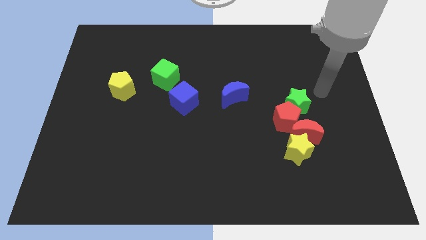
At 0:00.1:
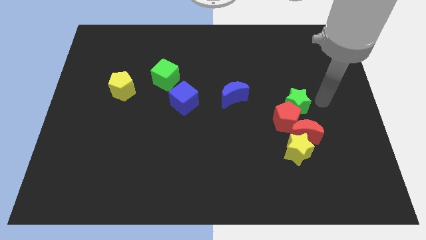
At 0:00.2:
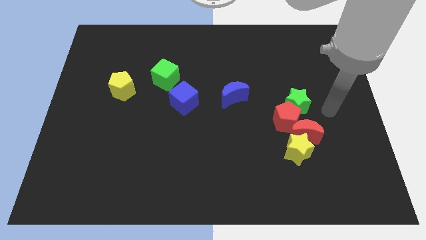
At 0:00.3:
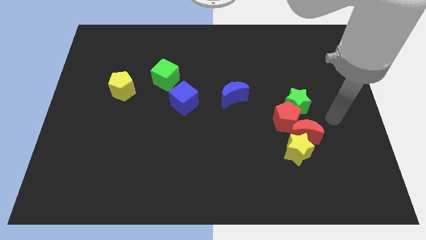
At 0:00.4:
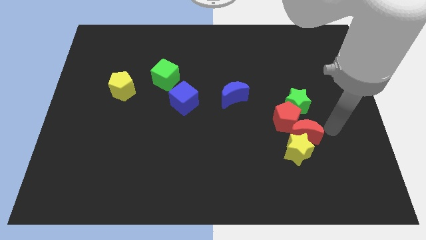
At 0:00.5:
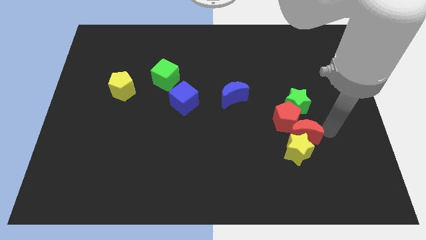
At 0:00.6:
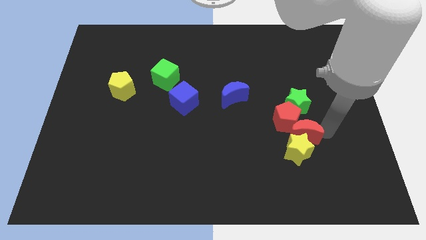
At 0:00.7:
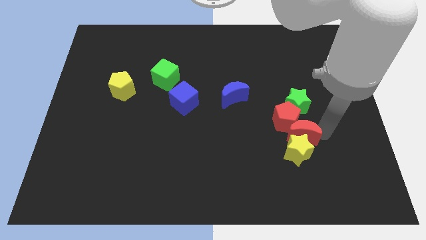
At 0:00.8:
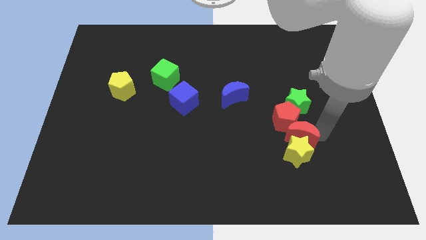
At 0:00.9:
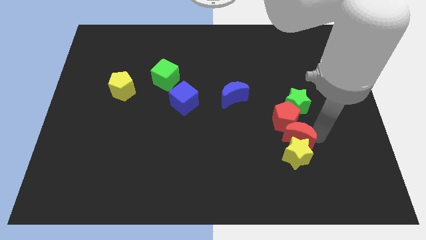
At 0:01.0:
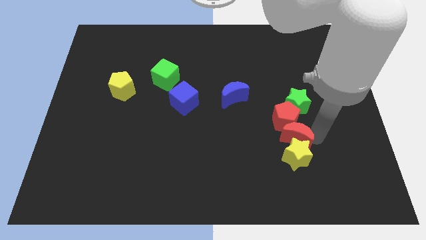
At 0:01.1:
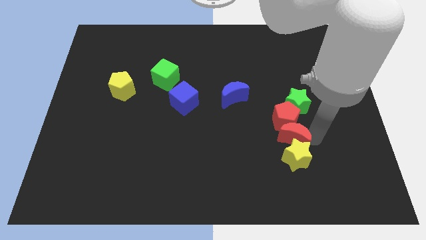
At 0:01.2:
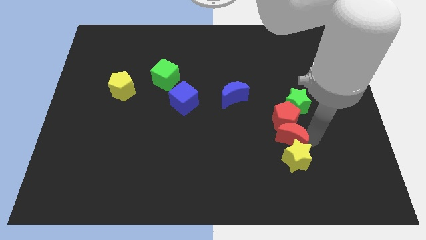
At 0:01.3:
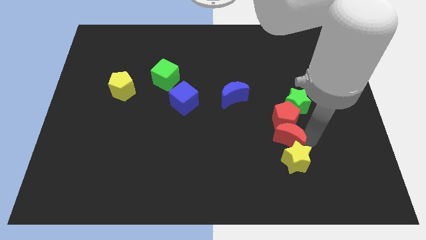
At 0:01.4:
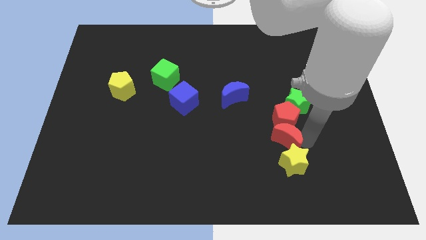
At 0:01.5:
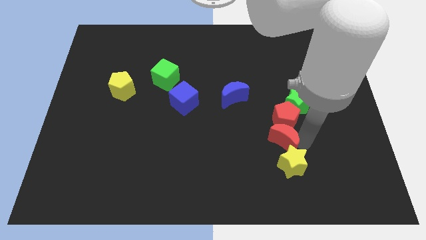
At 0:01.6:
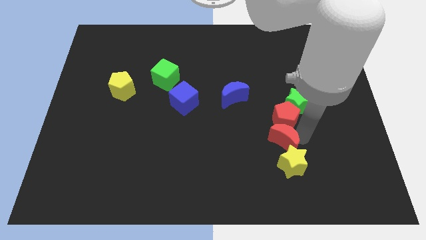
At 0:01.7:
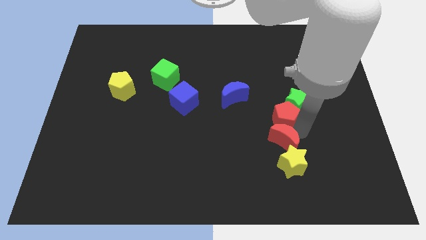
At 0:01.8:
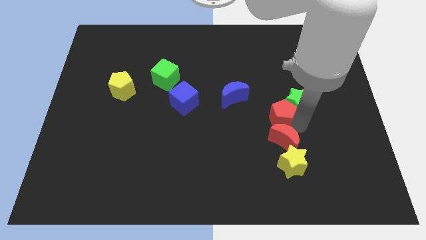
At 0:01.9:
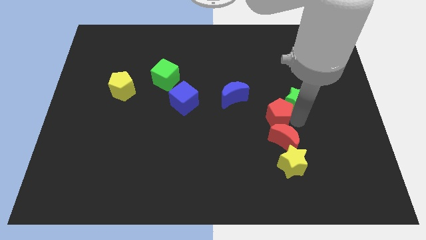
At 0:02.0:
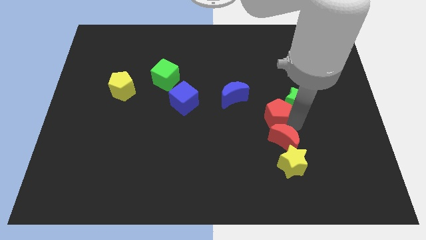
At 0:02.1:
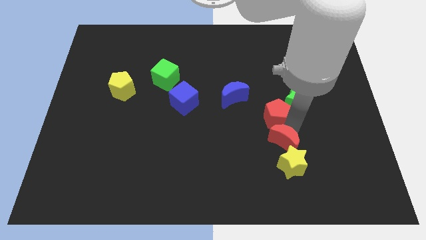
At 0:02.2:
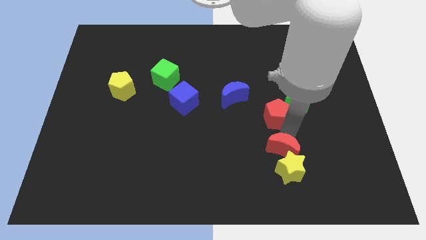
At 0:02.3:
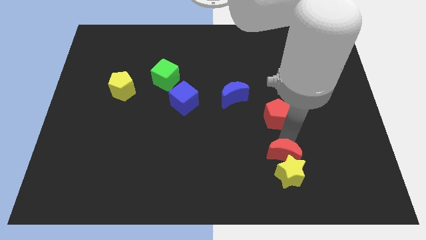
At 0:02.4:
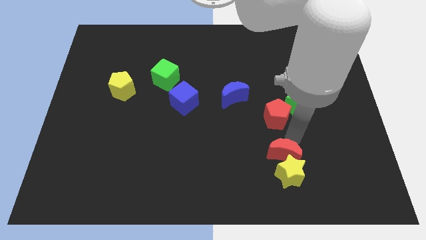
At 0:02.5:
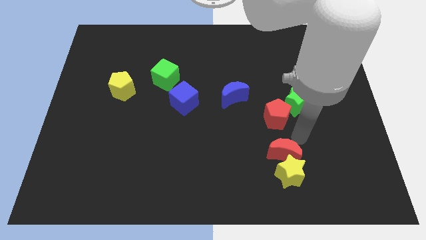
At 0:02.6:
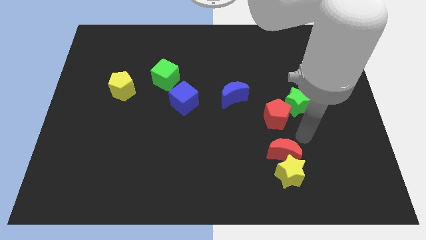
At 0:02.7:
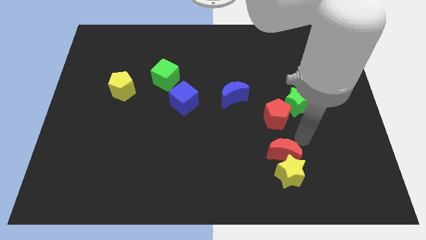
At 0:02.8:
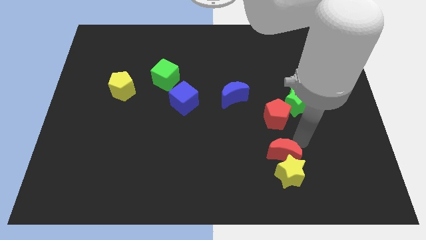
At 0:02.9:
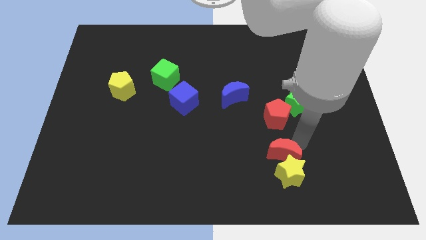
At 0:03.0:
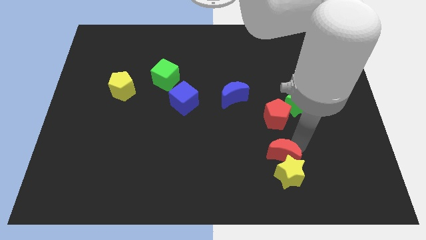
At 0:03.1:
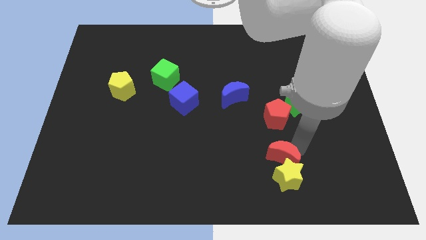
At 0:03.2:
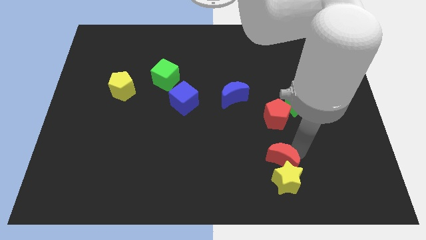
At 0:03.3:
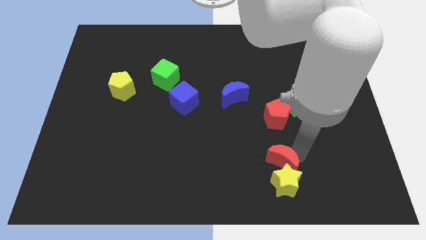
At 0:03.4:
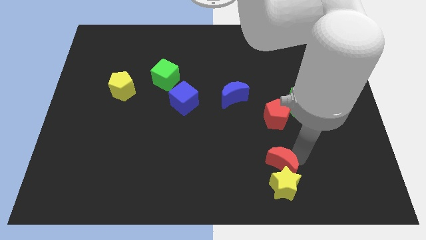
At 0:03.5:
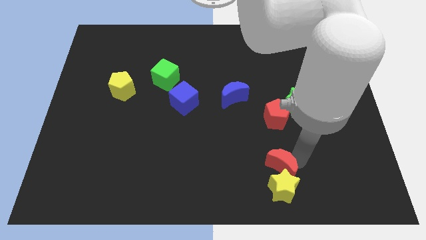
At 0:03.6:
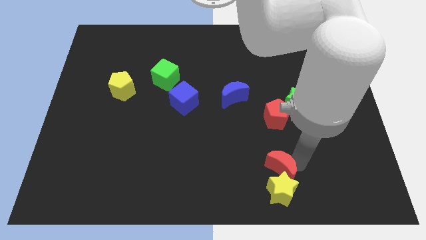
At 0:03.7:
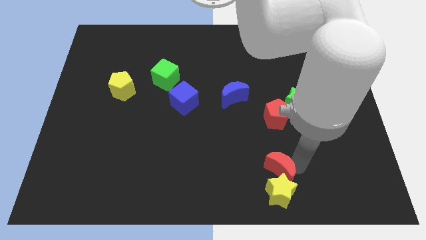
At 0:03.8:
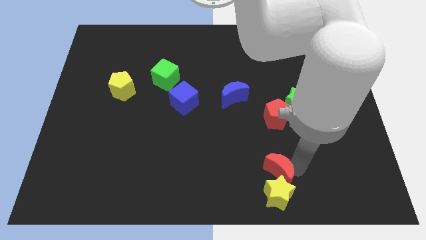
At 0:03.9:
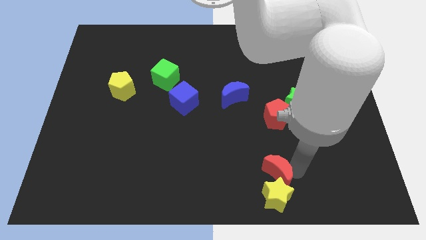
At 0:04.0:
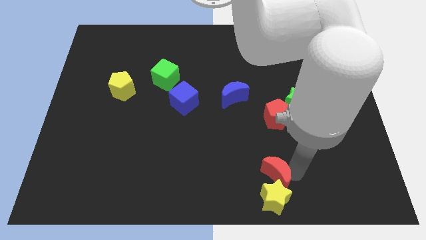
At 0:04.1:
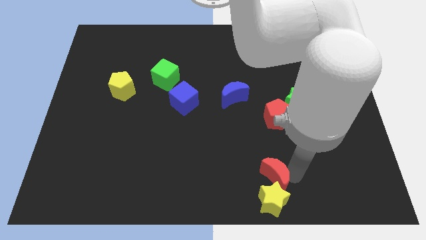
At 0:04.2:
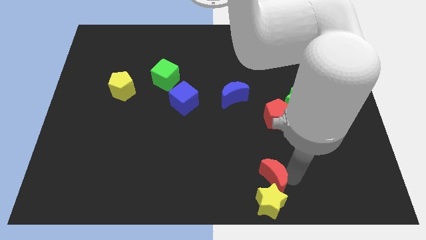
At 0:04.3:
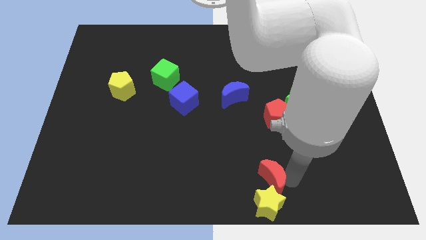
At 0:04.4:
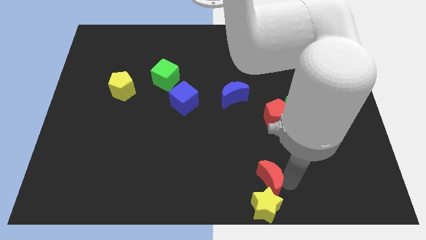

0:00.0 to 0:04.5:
push the red moon to the bottom

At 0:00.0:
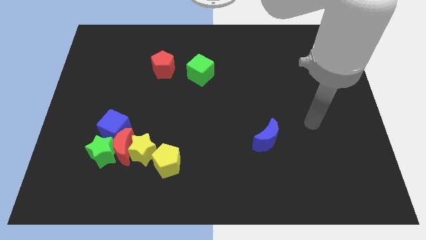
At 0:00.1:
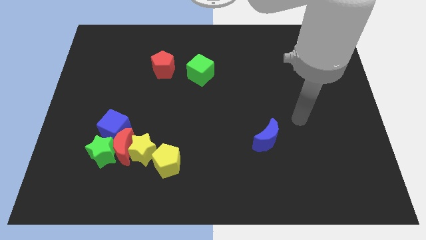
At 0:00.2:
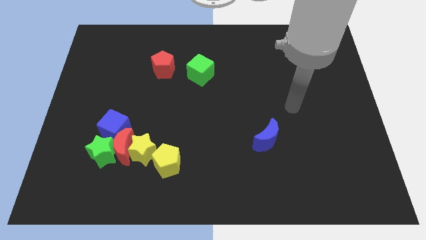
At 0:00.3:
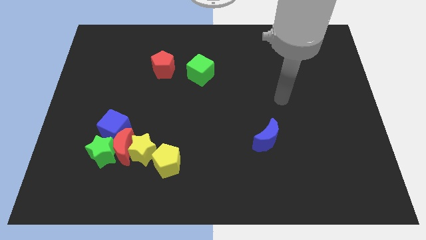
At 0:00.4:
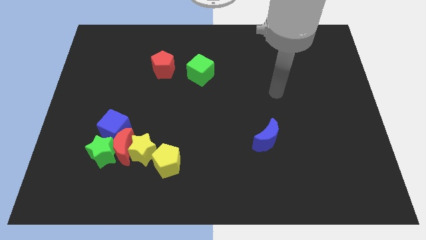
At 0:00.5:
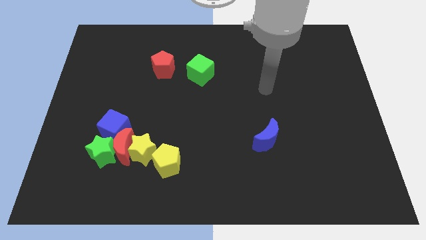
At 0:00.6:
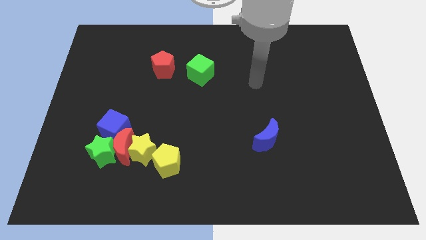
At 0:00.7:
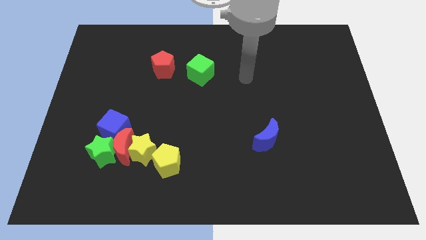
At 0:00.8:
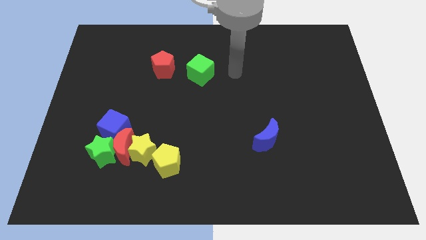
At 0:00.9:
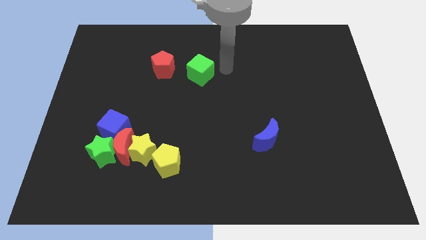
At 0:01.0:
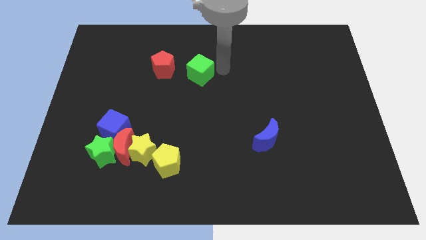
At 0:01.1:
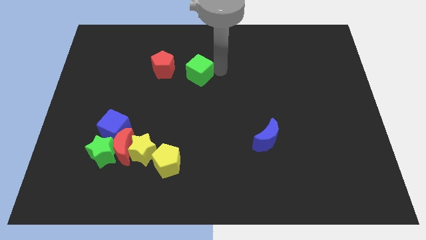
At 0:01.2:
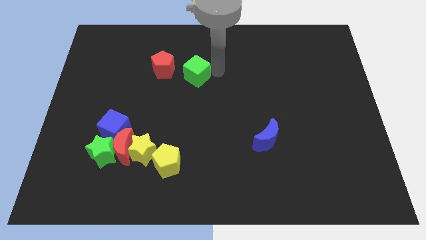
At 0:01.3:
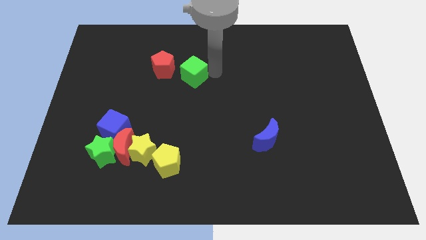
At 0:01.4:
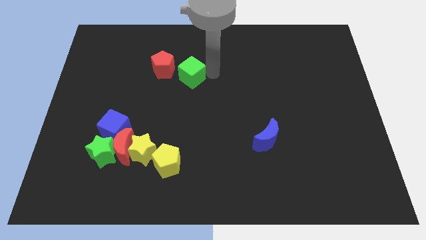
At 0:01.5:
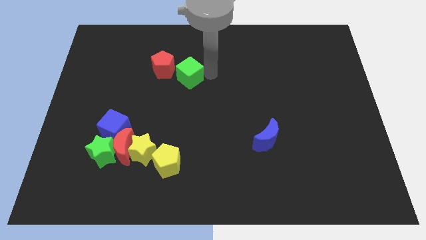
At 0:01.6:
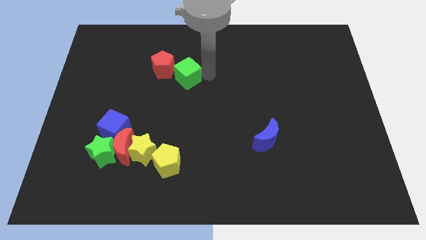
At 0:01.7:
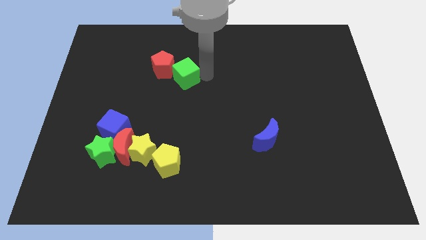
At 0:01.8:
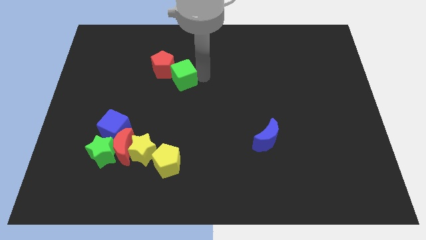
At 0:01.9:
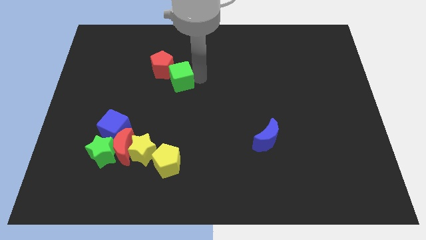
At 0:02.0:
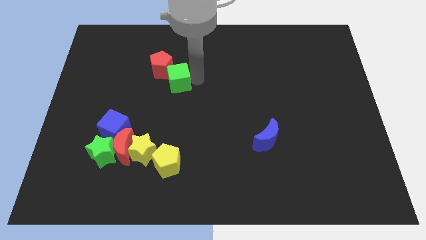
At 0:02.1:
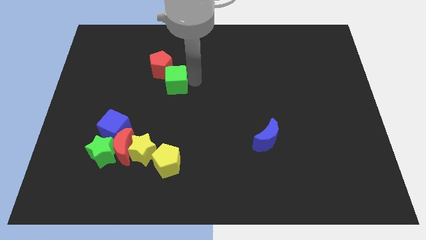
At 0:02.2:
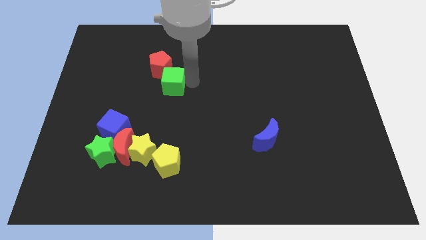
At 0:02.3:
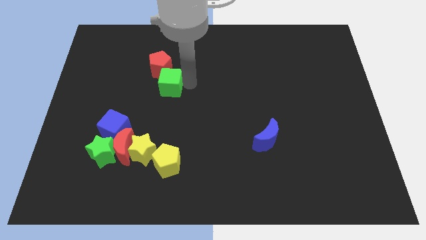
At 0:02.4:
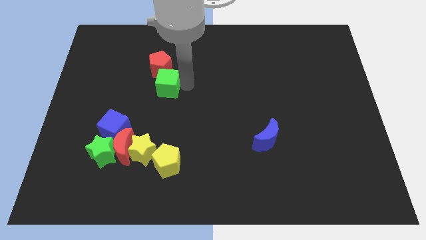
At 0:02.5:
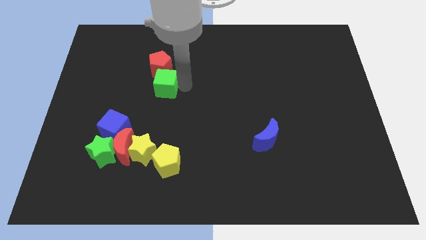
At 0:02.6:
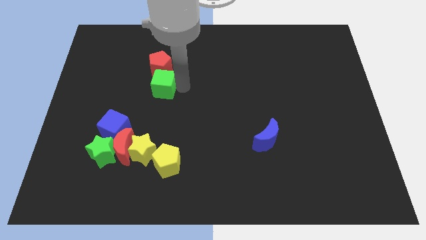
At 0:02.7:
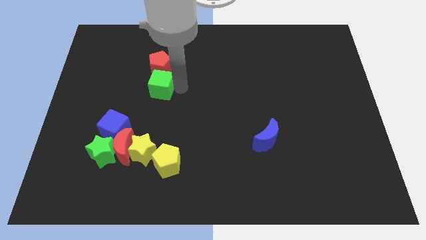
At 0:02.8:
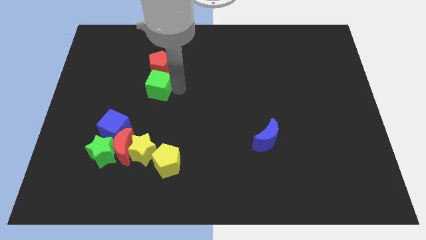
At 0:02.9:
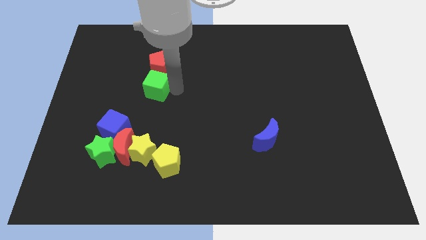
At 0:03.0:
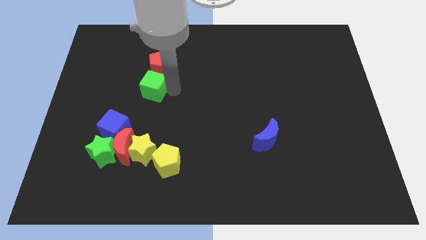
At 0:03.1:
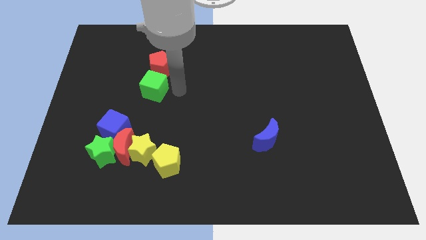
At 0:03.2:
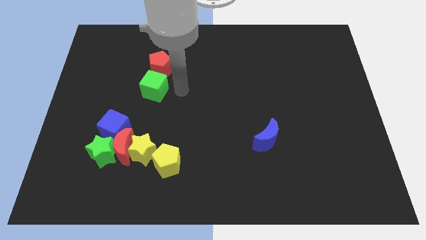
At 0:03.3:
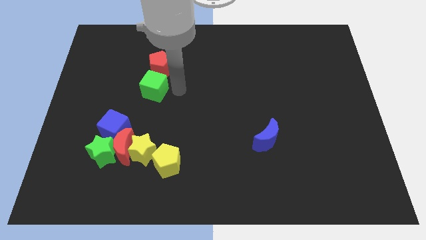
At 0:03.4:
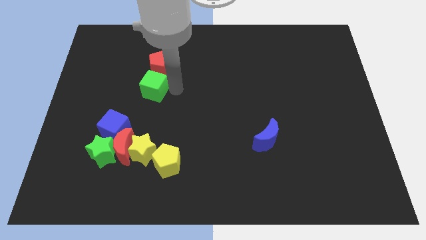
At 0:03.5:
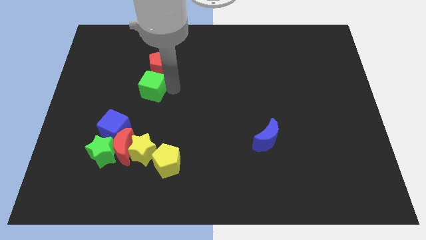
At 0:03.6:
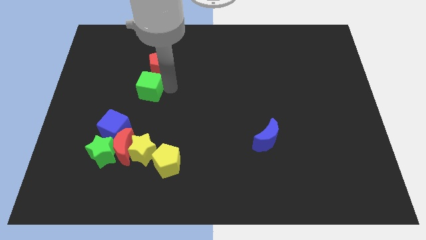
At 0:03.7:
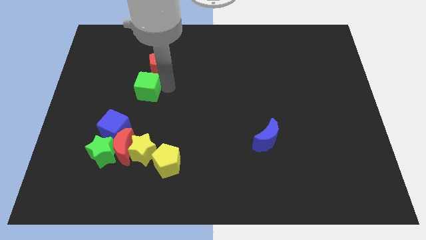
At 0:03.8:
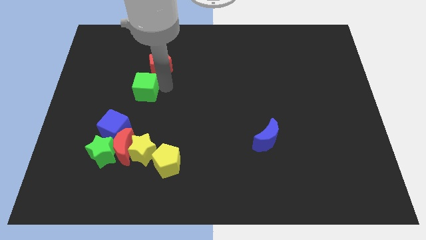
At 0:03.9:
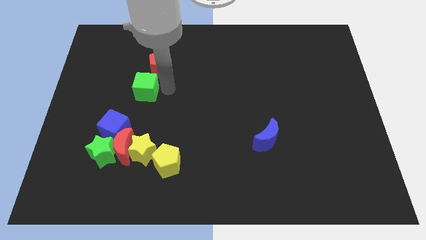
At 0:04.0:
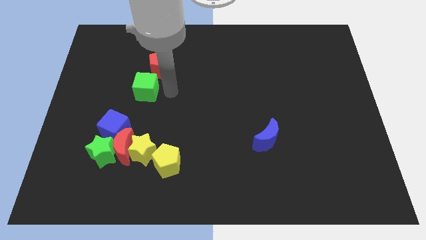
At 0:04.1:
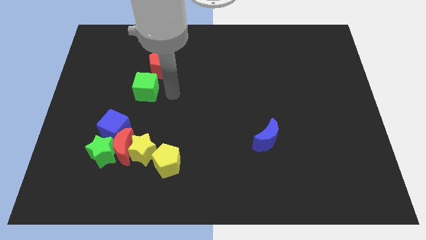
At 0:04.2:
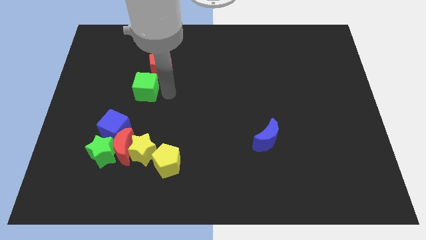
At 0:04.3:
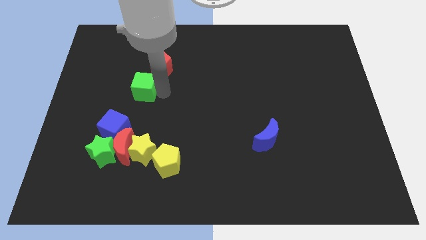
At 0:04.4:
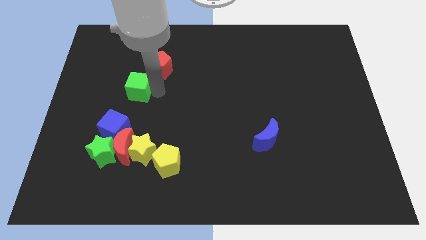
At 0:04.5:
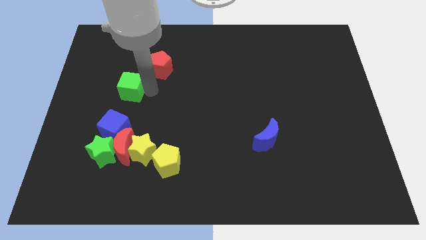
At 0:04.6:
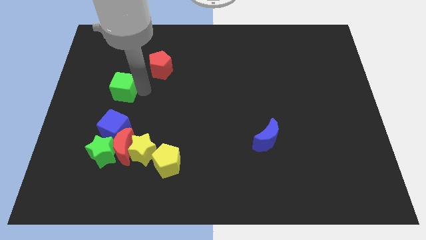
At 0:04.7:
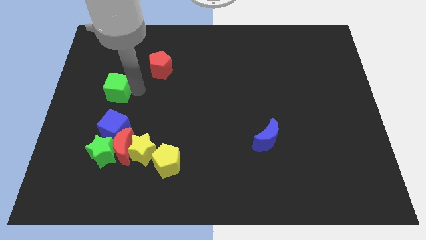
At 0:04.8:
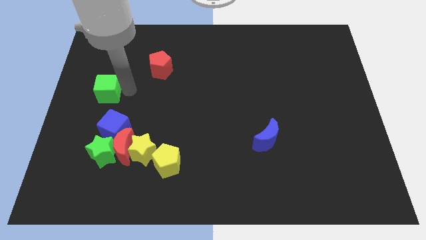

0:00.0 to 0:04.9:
move the green cube to the left side of the board
